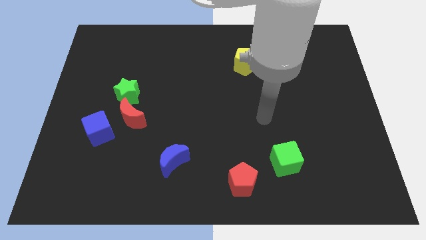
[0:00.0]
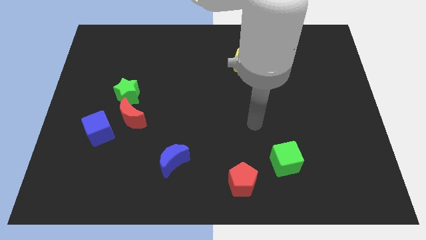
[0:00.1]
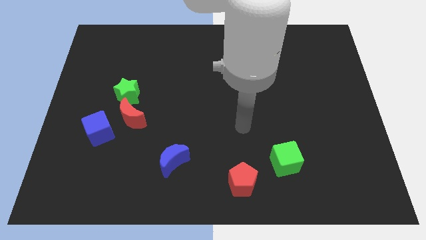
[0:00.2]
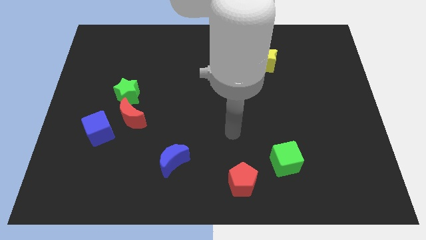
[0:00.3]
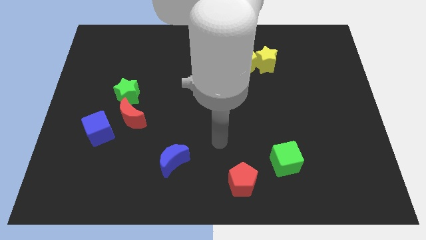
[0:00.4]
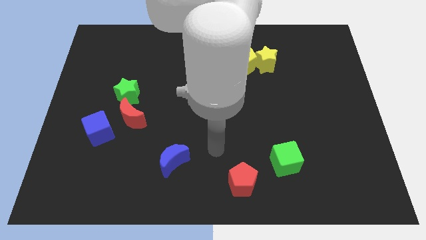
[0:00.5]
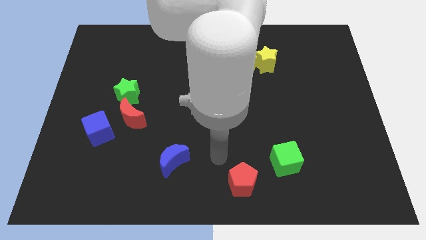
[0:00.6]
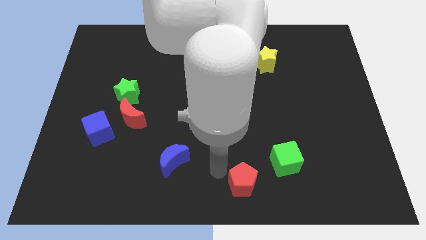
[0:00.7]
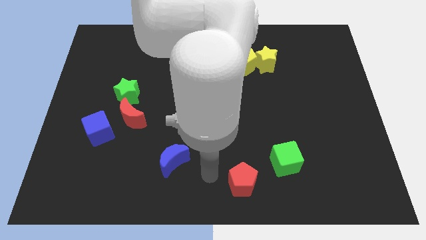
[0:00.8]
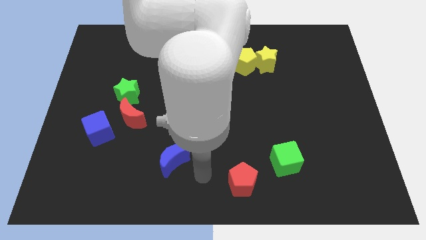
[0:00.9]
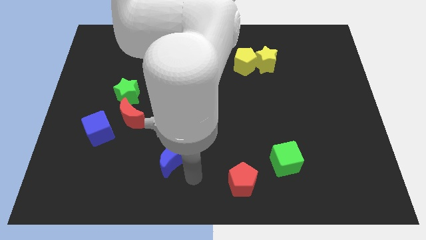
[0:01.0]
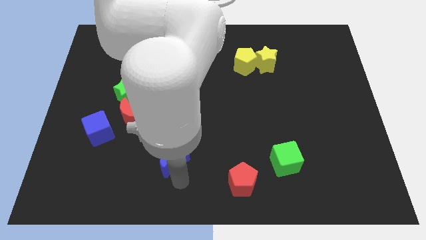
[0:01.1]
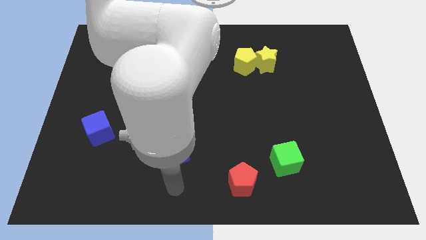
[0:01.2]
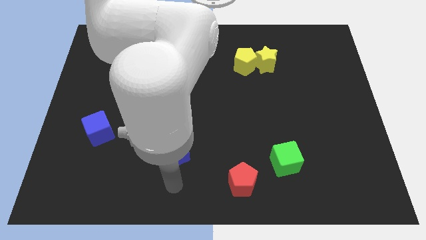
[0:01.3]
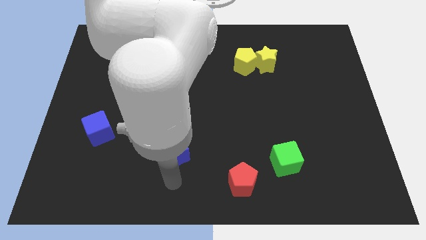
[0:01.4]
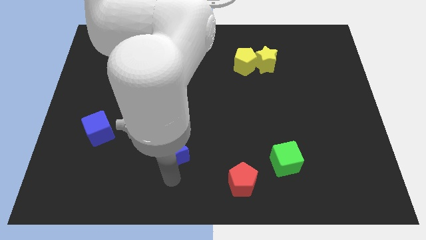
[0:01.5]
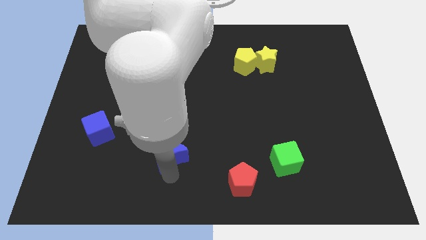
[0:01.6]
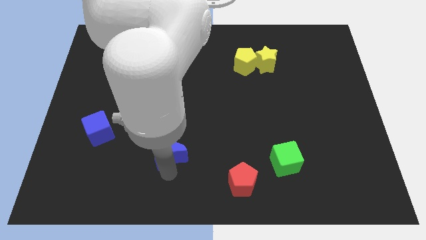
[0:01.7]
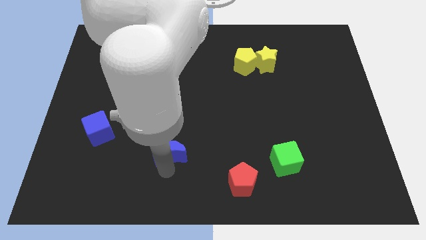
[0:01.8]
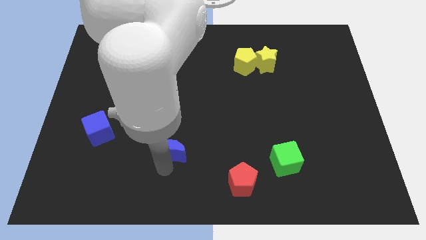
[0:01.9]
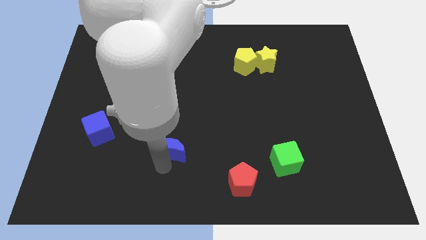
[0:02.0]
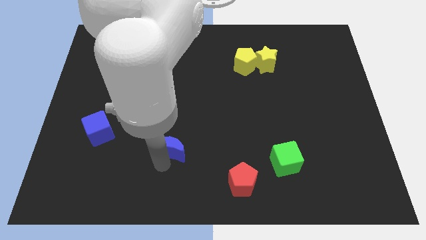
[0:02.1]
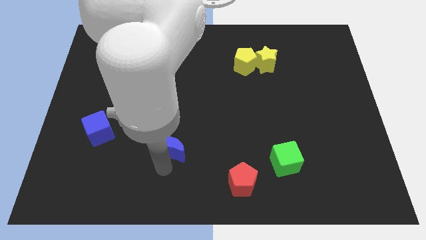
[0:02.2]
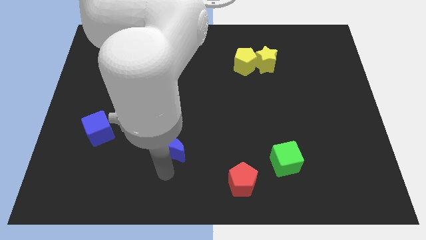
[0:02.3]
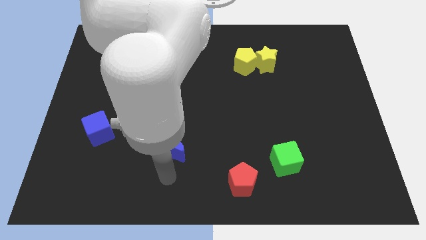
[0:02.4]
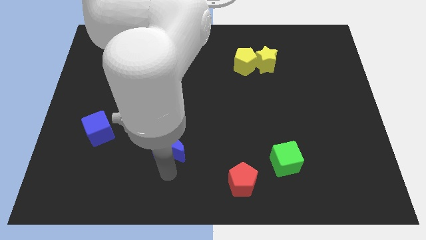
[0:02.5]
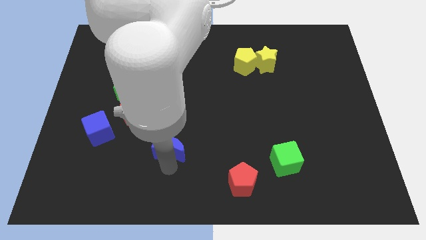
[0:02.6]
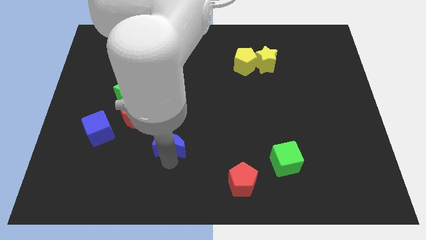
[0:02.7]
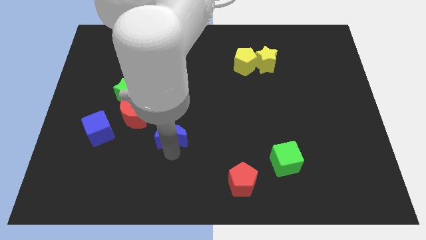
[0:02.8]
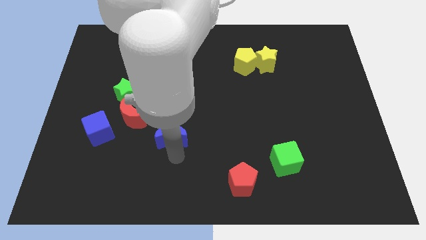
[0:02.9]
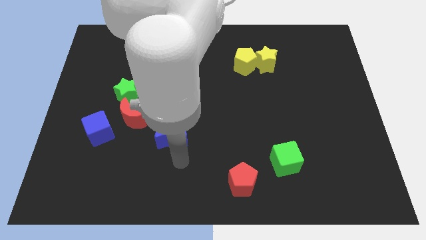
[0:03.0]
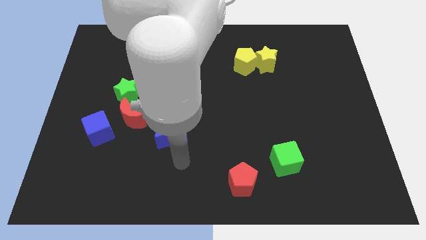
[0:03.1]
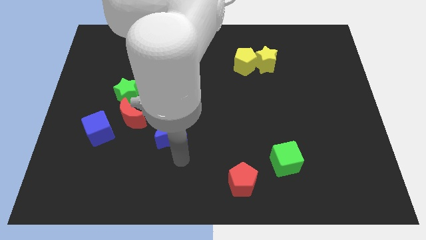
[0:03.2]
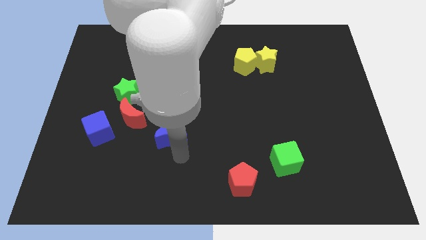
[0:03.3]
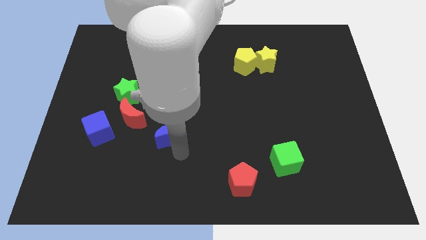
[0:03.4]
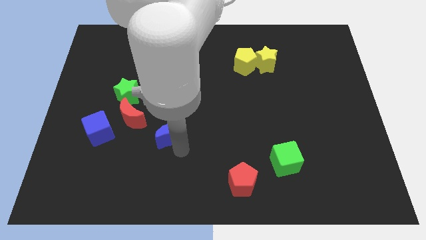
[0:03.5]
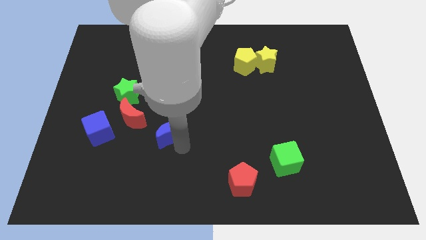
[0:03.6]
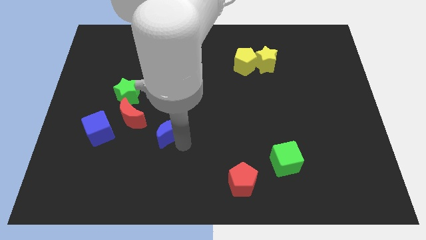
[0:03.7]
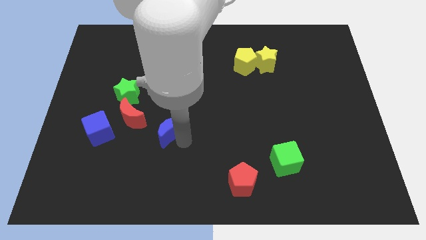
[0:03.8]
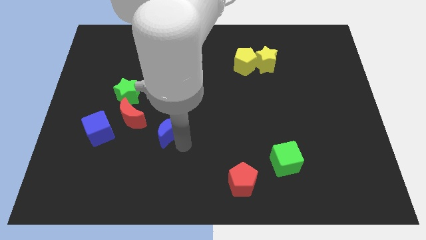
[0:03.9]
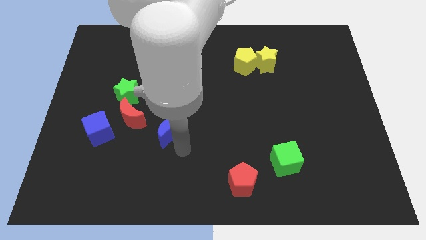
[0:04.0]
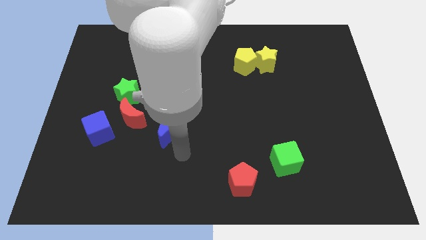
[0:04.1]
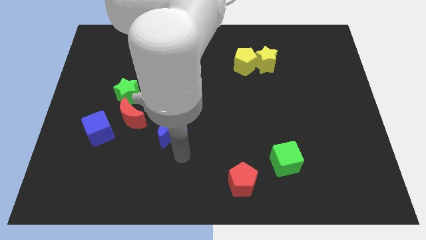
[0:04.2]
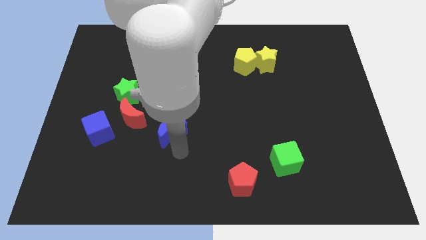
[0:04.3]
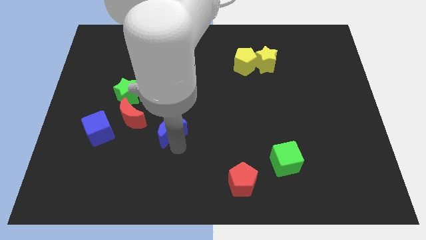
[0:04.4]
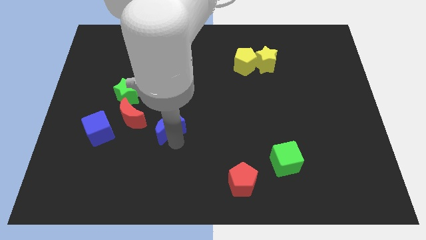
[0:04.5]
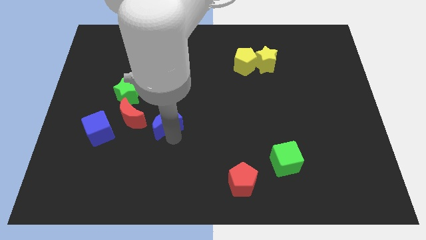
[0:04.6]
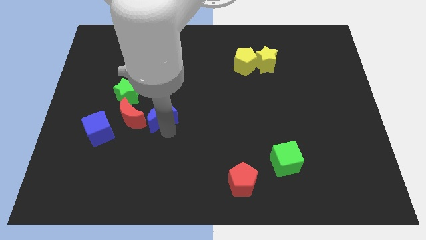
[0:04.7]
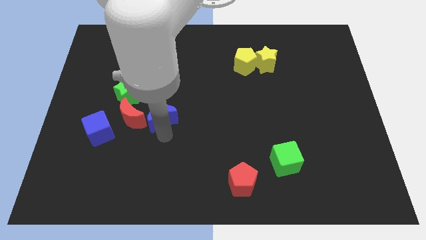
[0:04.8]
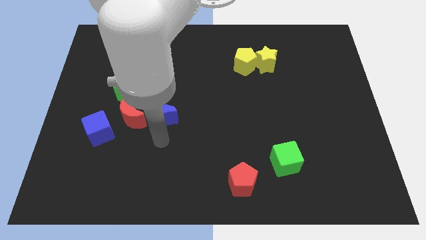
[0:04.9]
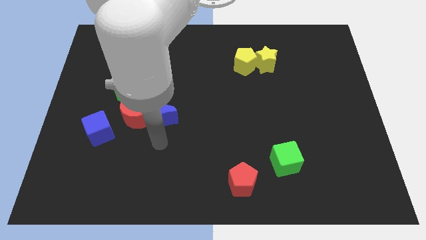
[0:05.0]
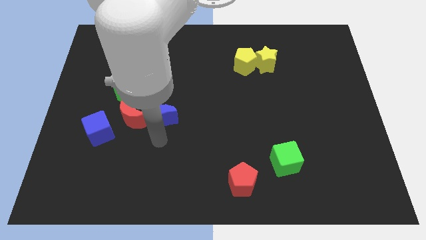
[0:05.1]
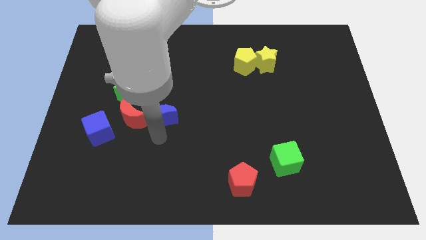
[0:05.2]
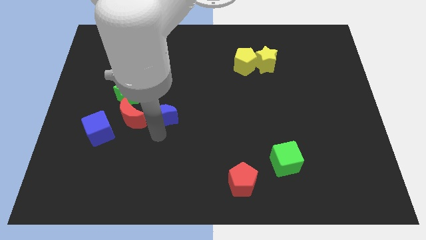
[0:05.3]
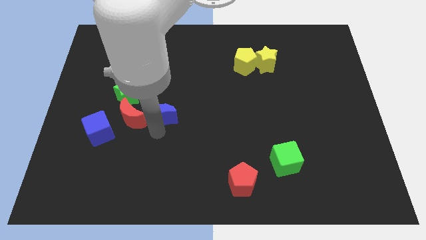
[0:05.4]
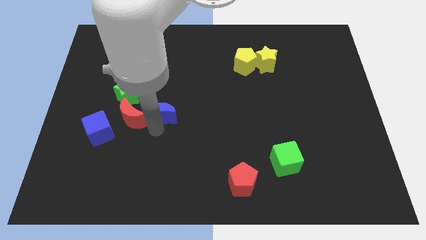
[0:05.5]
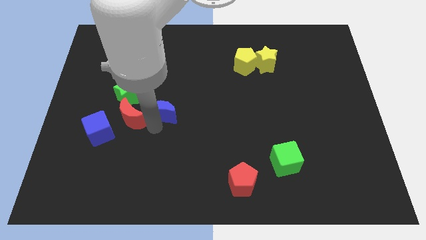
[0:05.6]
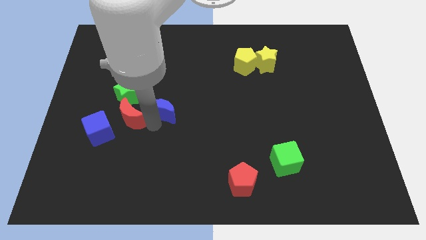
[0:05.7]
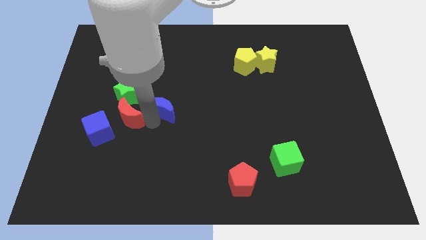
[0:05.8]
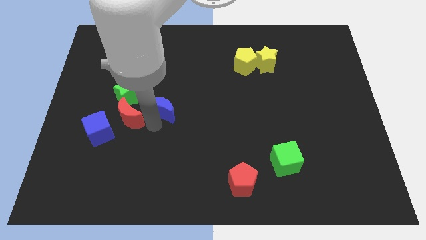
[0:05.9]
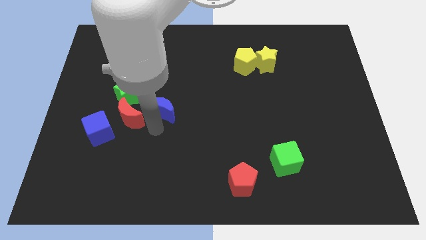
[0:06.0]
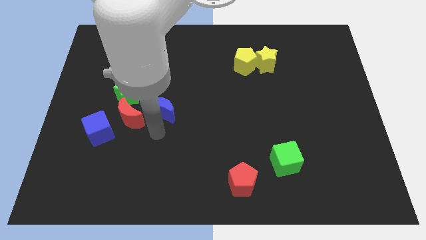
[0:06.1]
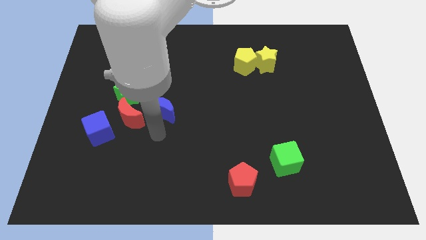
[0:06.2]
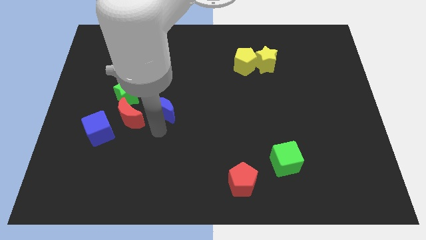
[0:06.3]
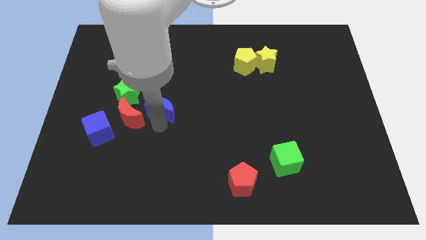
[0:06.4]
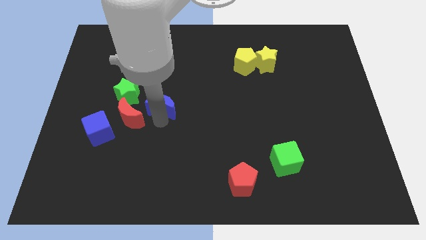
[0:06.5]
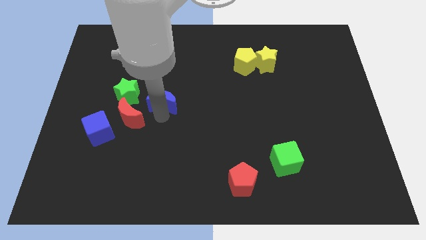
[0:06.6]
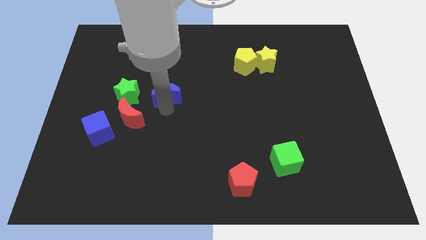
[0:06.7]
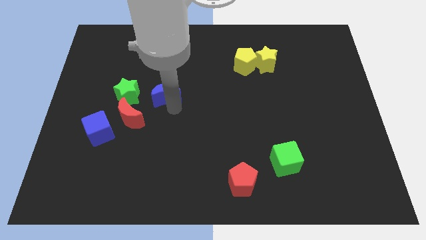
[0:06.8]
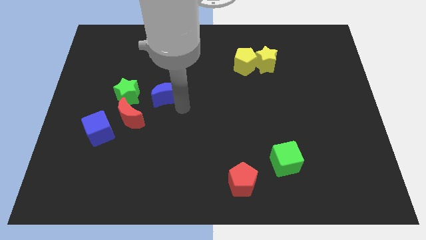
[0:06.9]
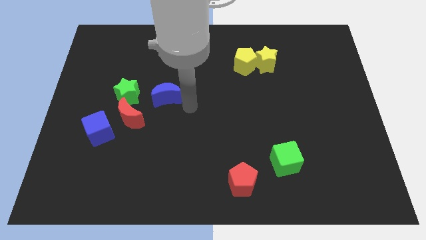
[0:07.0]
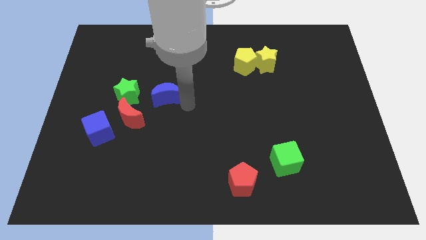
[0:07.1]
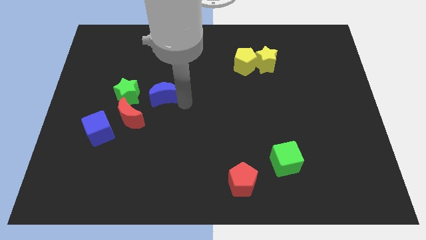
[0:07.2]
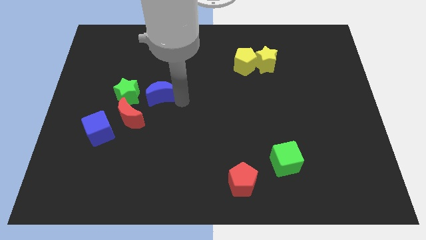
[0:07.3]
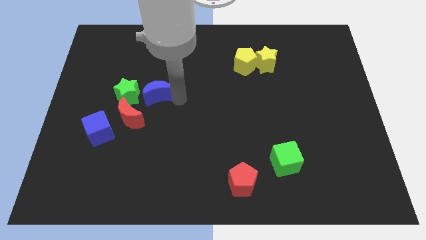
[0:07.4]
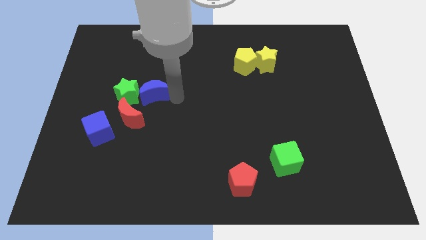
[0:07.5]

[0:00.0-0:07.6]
slide the blue moon above the red moon

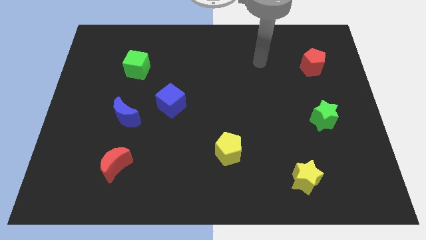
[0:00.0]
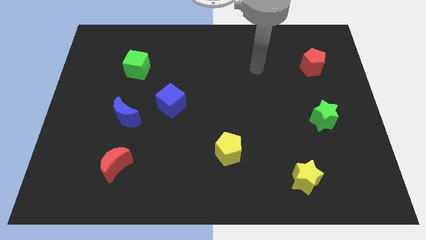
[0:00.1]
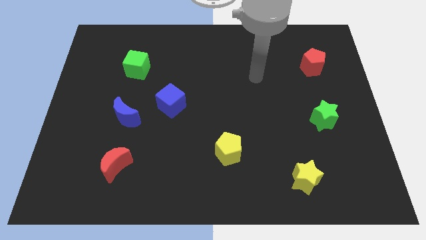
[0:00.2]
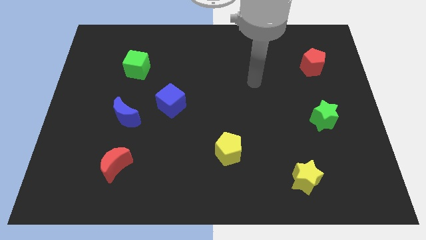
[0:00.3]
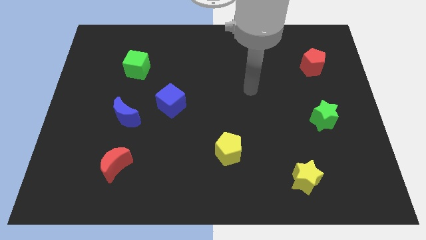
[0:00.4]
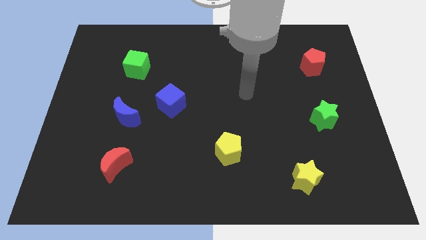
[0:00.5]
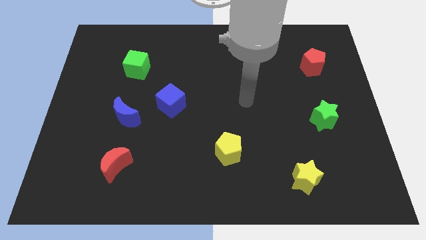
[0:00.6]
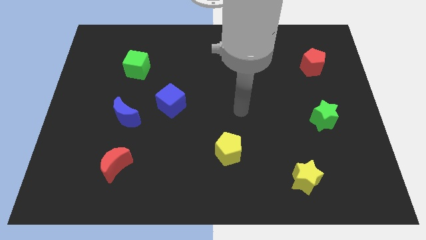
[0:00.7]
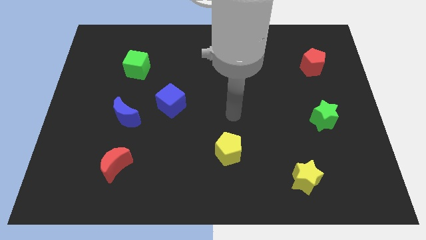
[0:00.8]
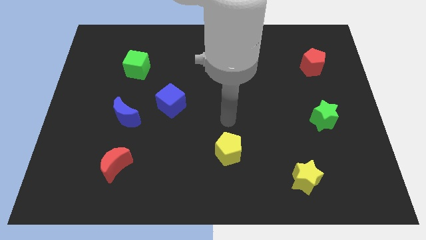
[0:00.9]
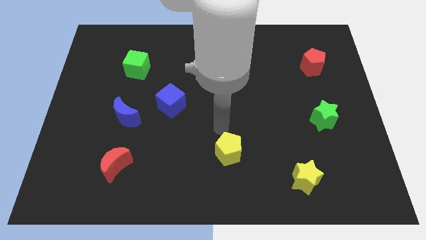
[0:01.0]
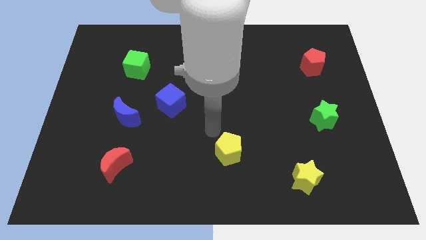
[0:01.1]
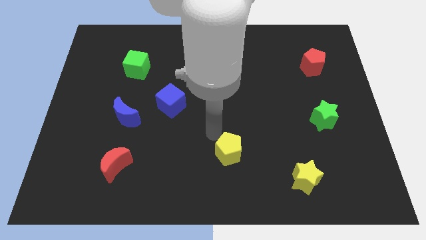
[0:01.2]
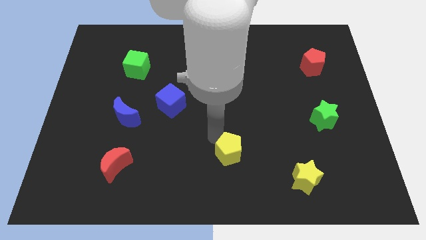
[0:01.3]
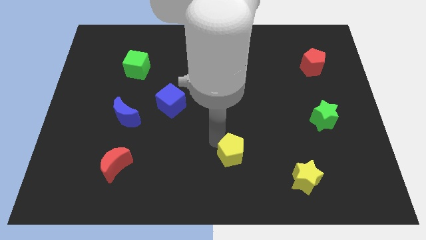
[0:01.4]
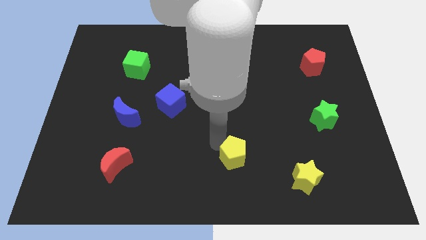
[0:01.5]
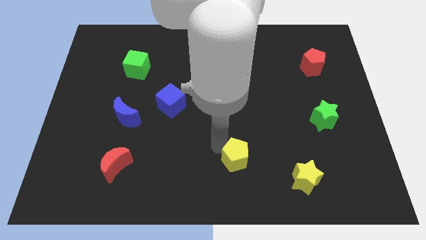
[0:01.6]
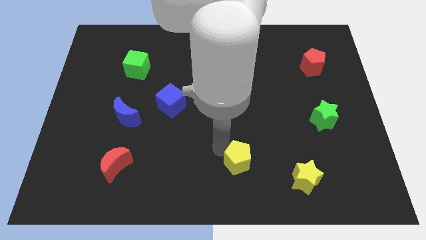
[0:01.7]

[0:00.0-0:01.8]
move the yellow pentagon left of the yellow star
